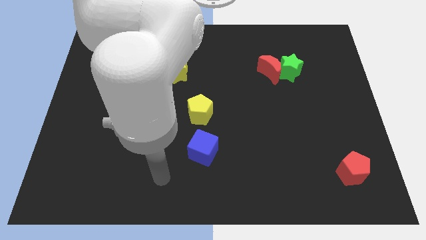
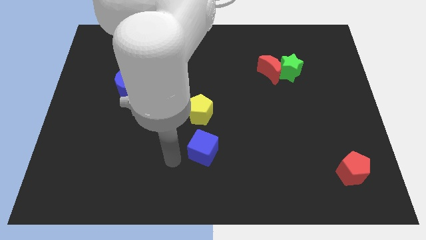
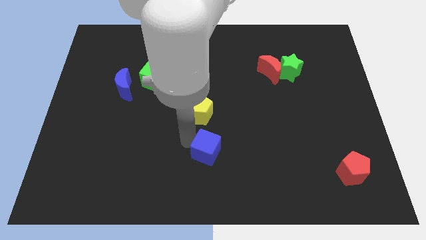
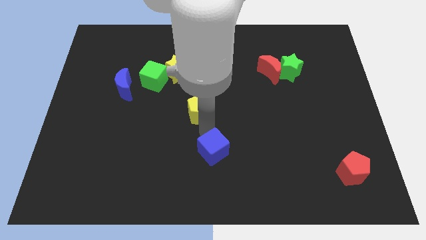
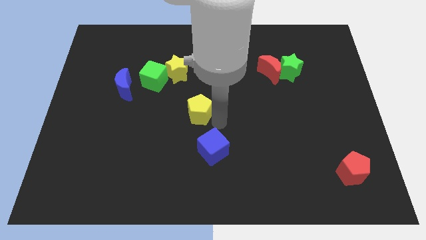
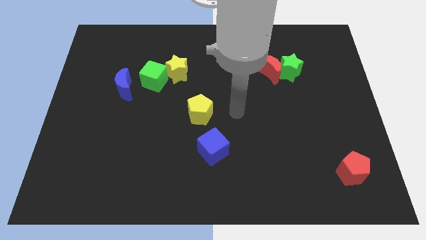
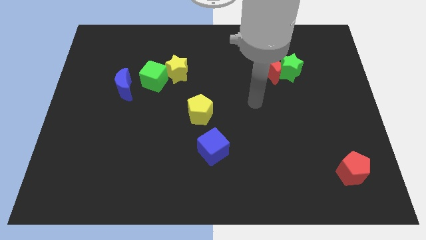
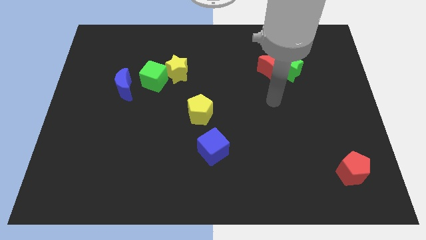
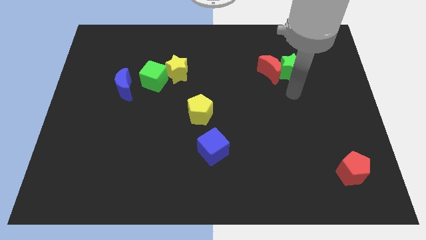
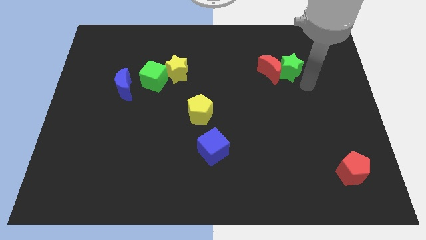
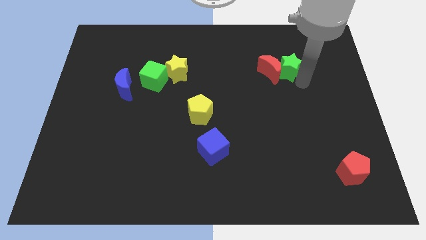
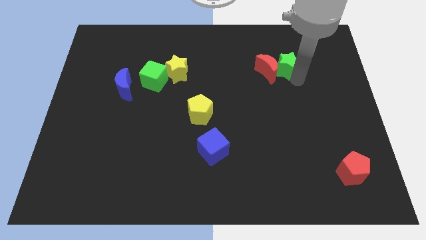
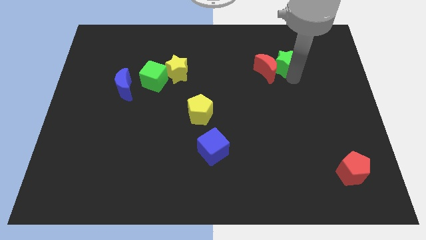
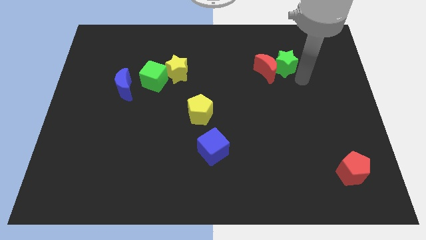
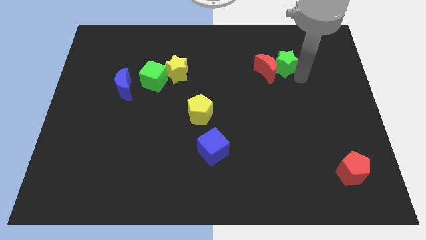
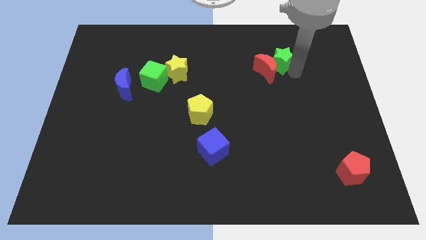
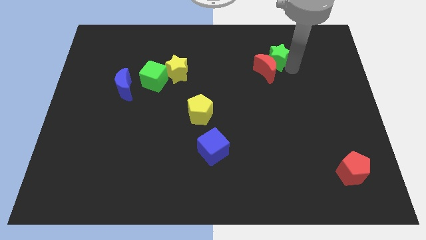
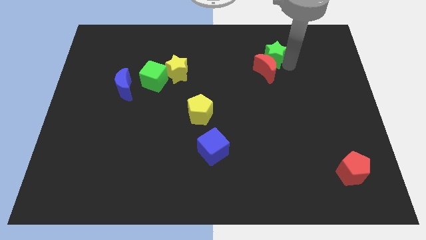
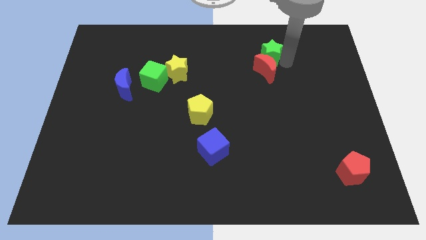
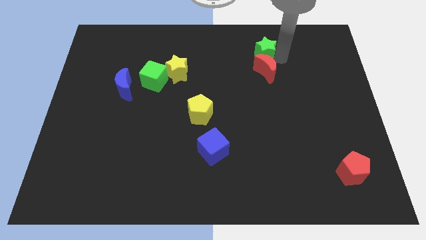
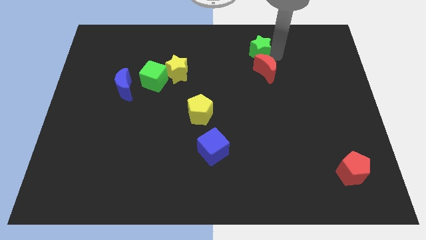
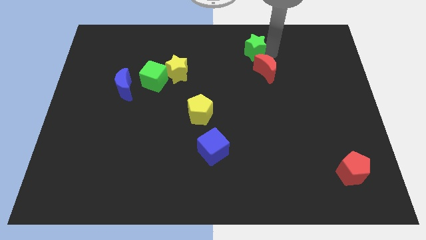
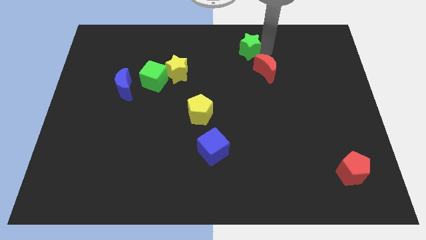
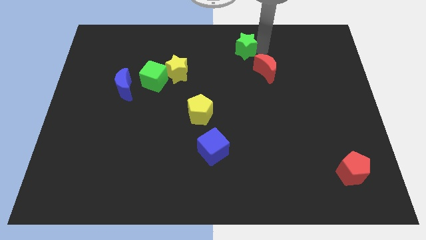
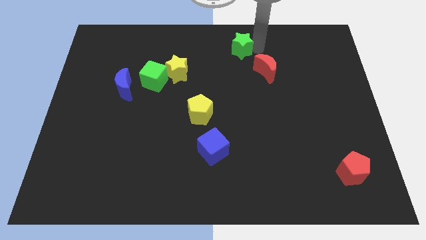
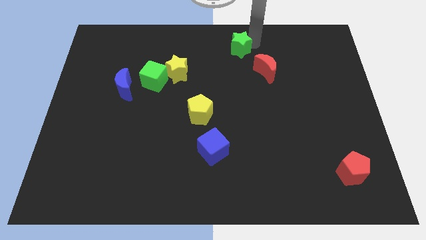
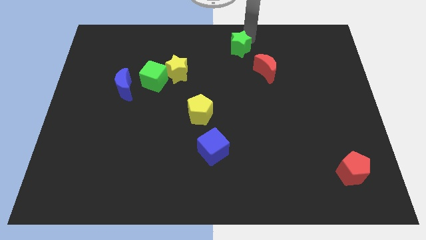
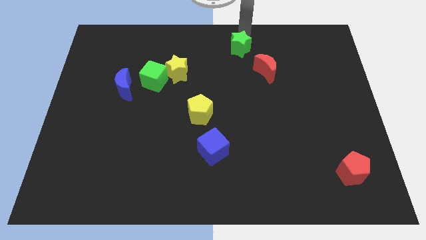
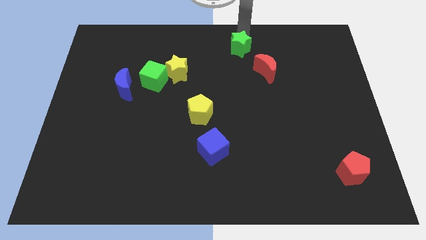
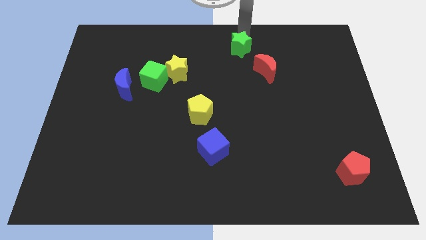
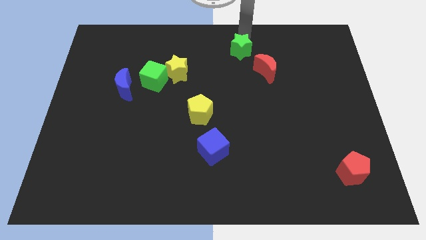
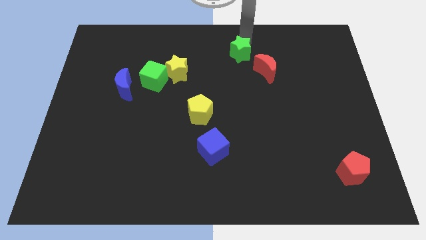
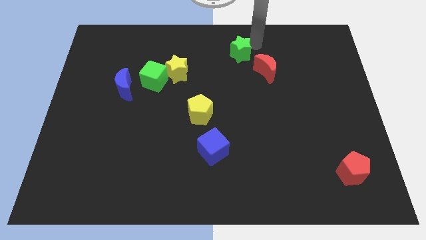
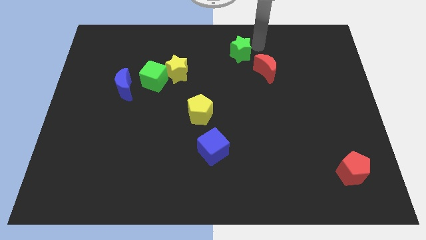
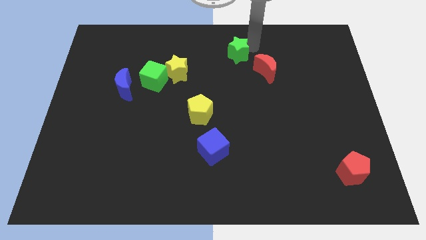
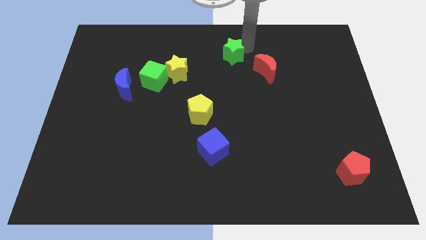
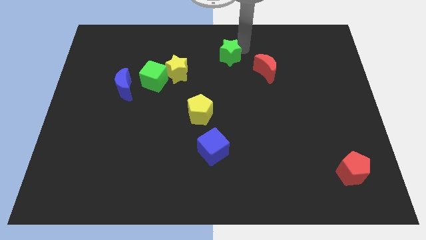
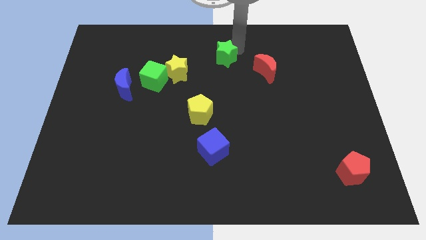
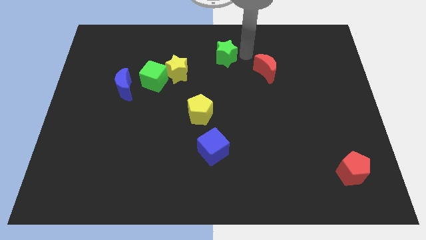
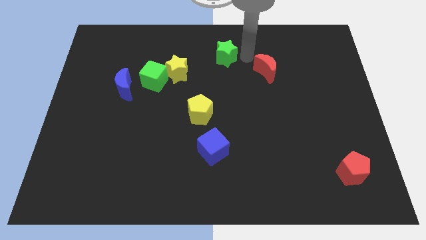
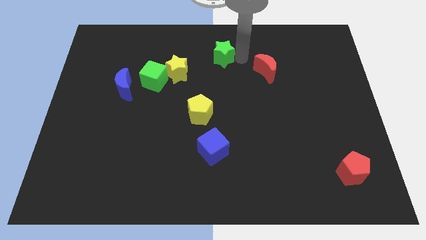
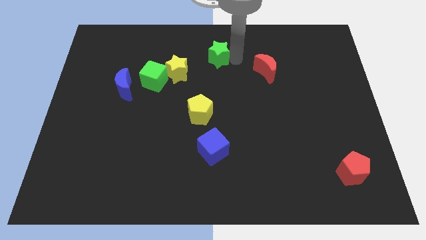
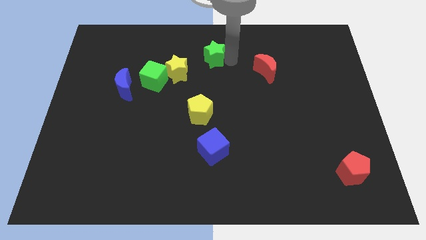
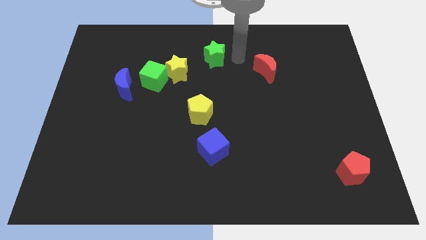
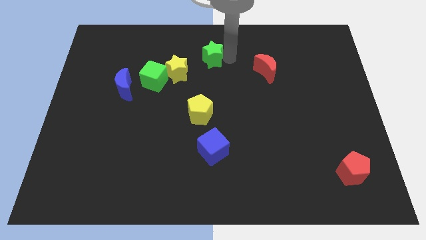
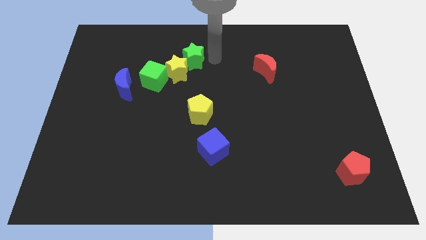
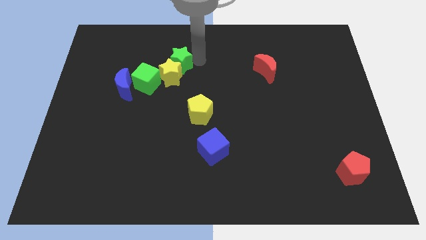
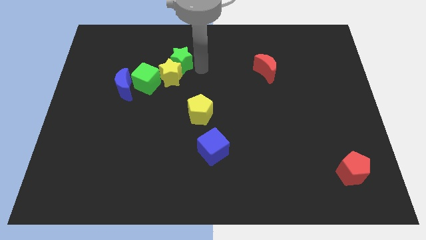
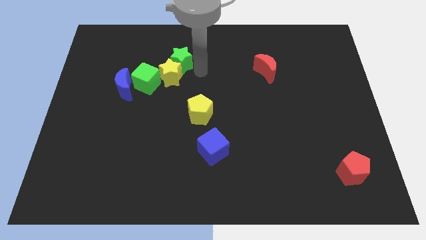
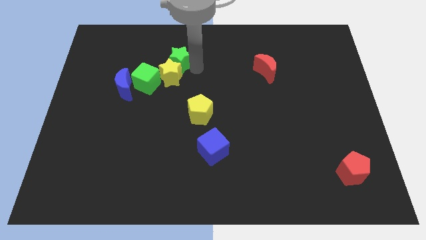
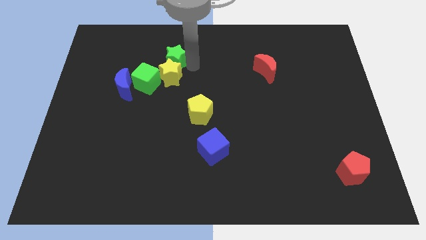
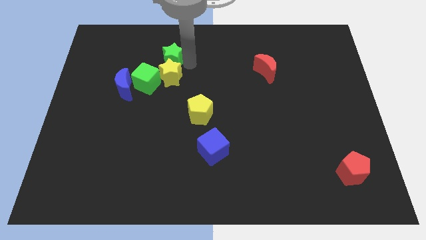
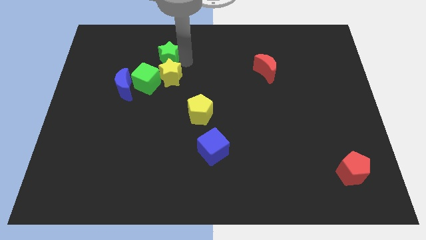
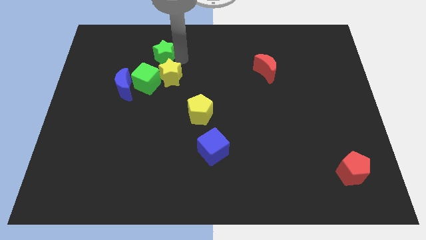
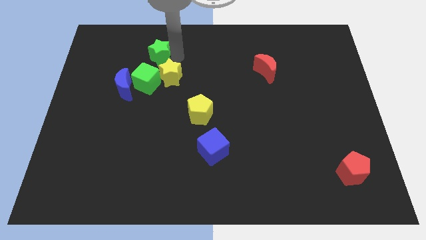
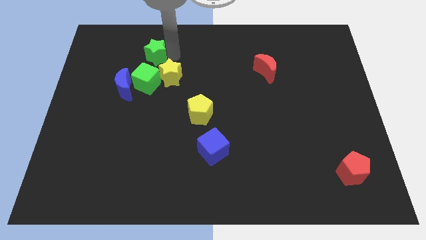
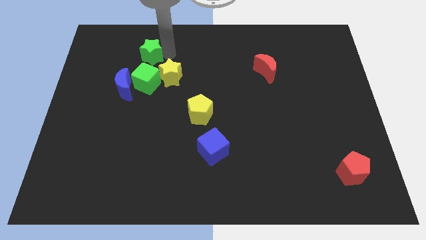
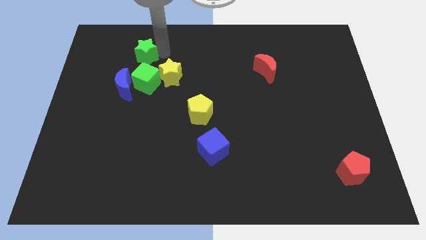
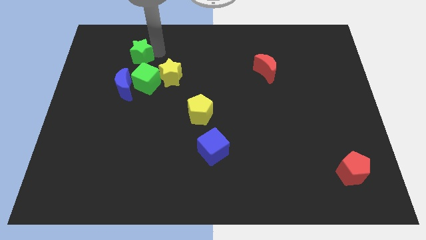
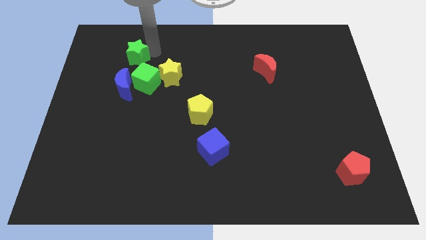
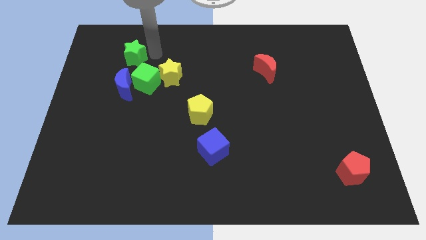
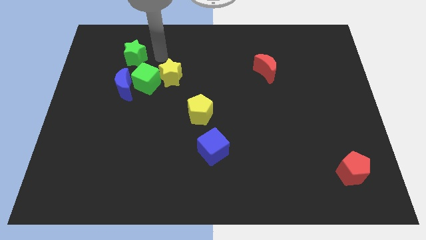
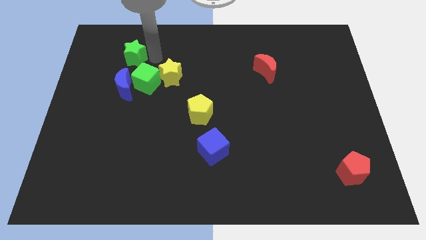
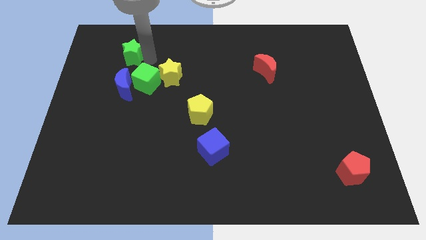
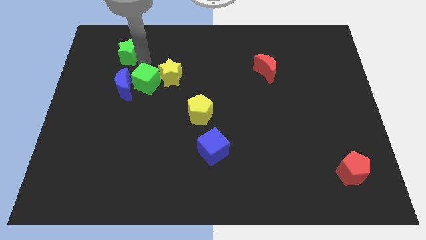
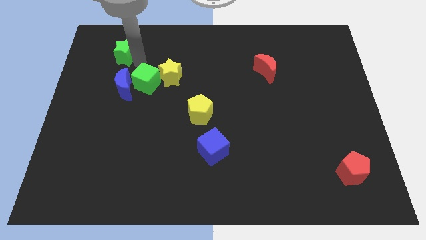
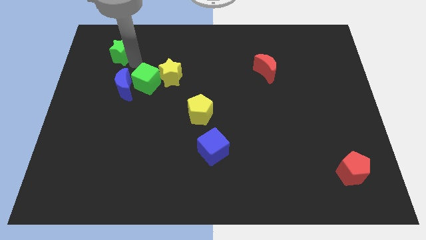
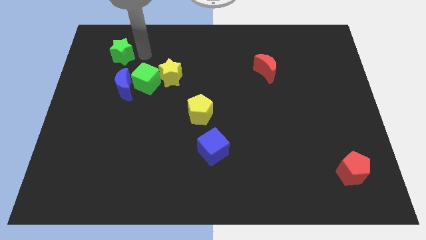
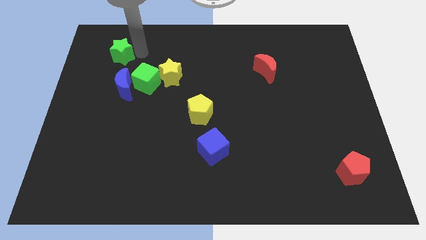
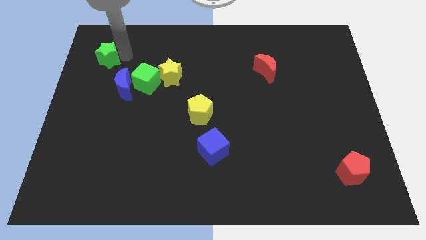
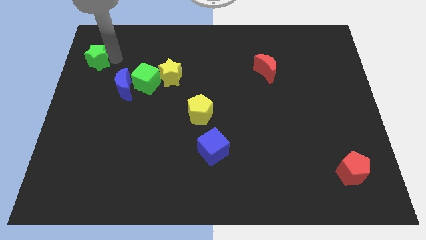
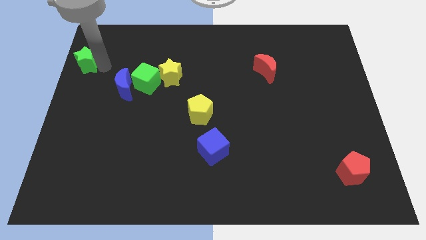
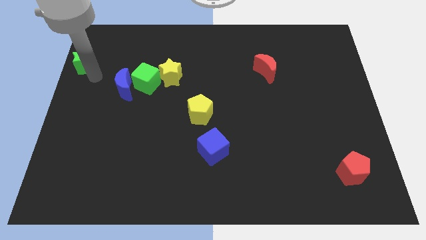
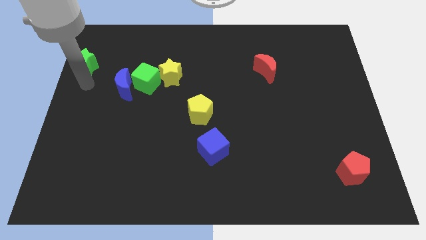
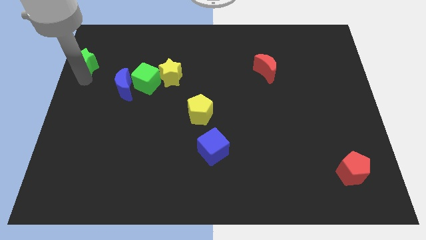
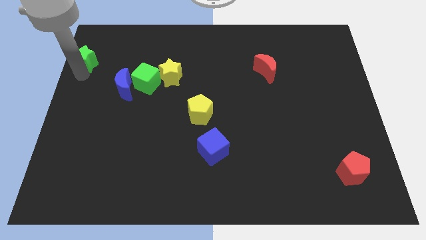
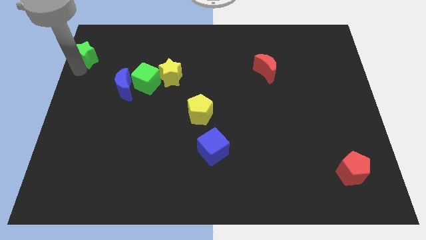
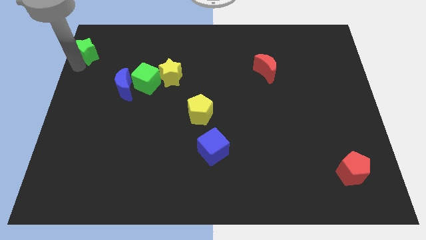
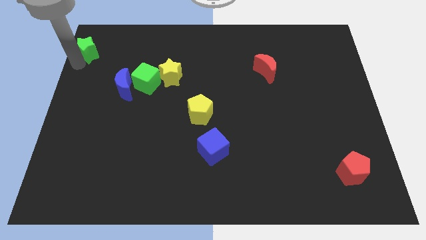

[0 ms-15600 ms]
put the green star to the top left of the board
